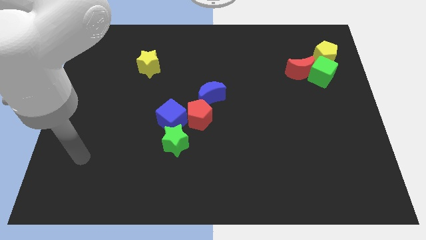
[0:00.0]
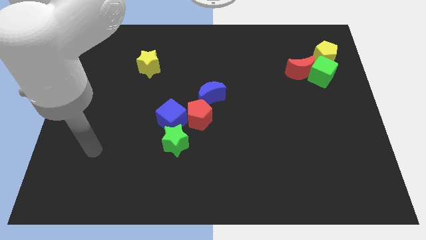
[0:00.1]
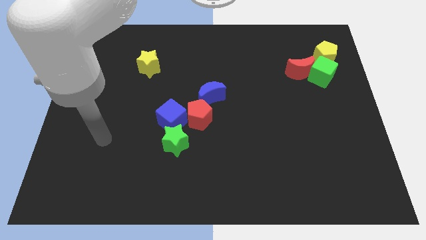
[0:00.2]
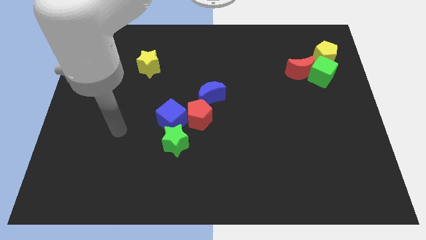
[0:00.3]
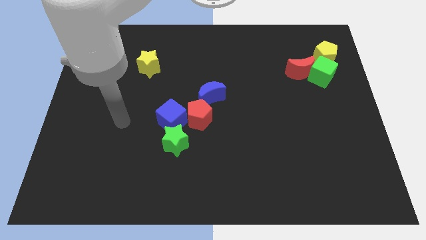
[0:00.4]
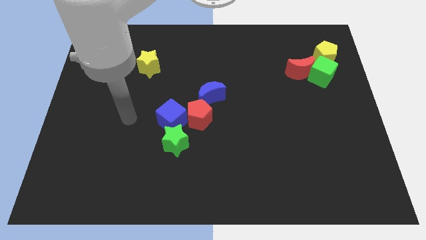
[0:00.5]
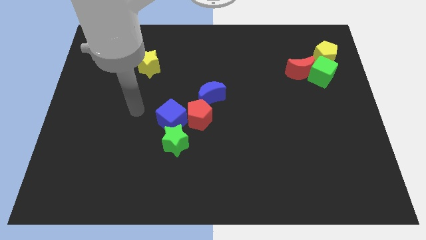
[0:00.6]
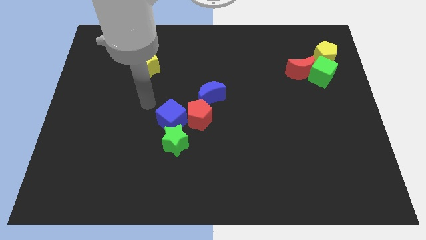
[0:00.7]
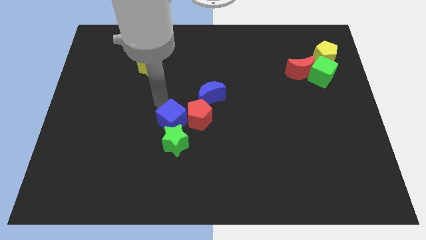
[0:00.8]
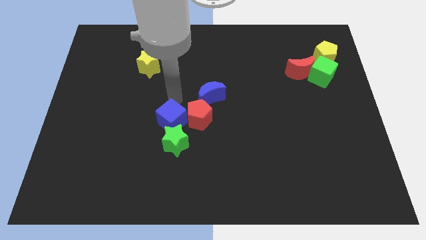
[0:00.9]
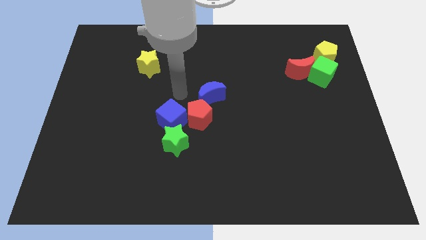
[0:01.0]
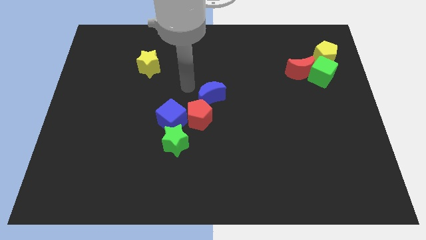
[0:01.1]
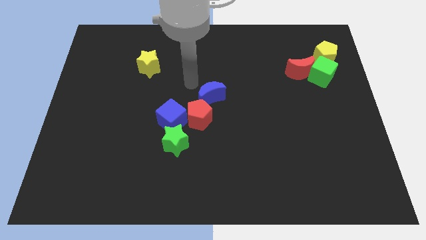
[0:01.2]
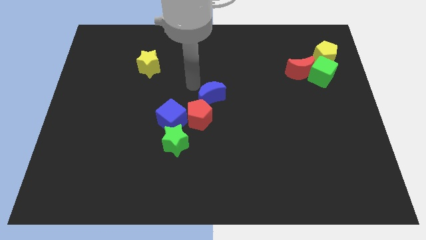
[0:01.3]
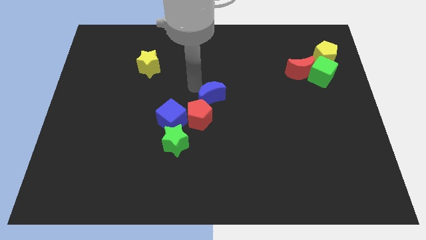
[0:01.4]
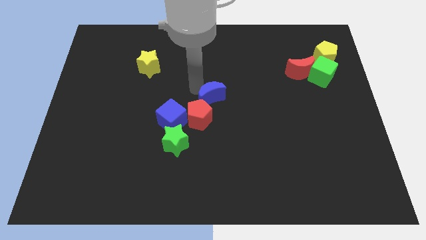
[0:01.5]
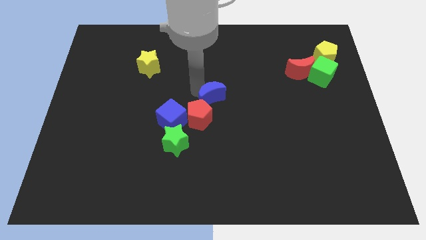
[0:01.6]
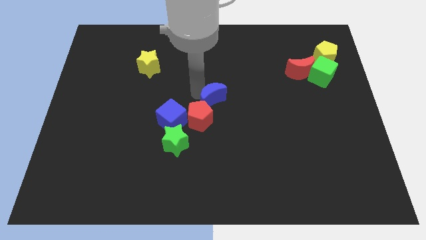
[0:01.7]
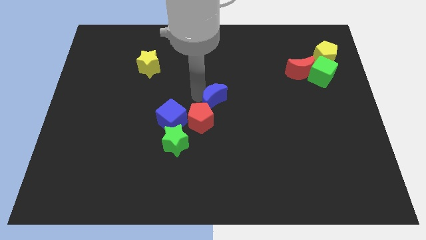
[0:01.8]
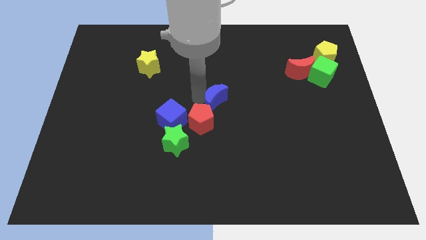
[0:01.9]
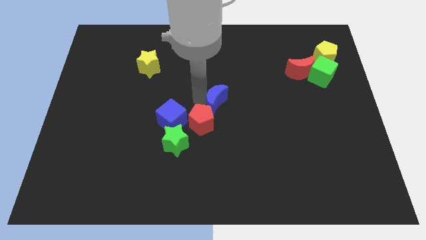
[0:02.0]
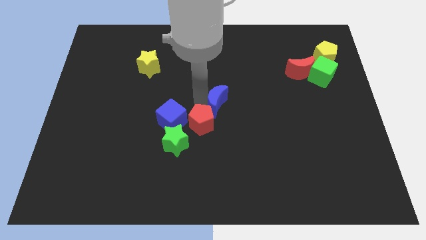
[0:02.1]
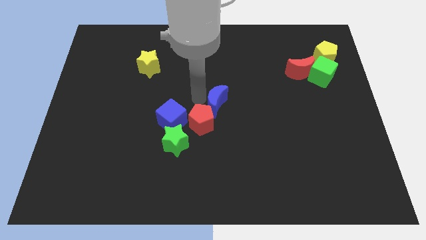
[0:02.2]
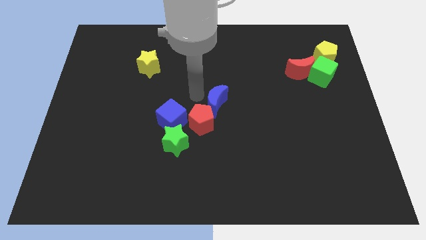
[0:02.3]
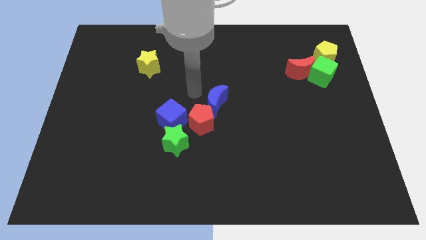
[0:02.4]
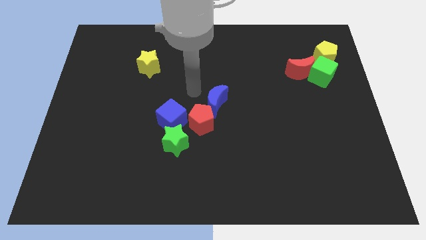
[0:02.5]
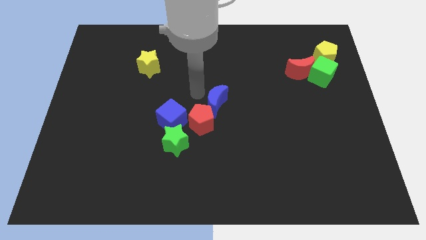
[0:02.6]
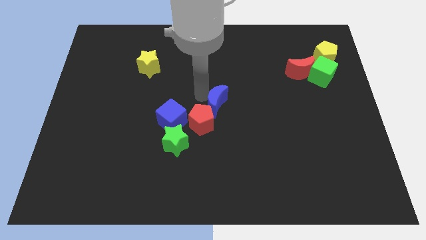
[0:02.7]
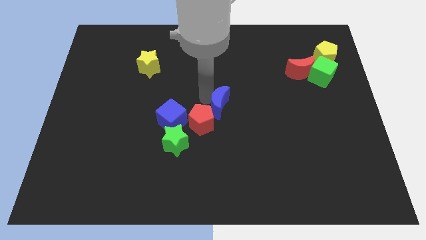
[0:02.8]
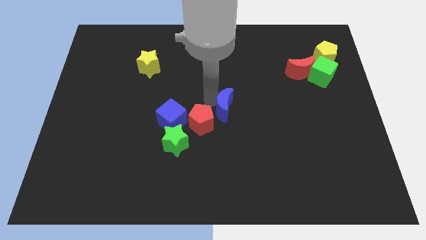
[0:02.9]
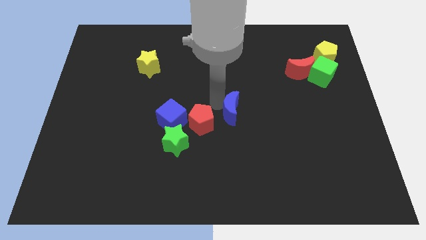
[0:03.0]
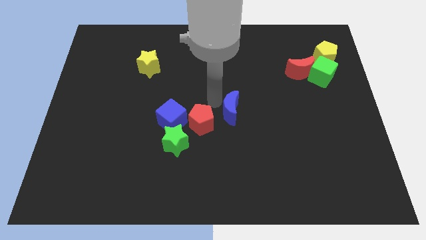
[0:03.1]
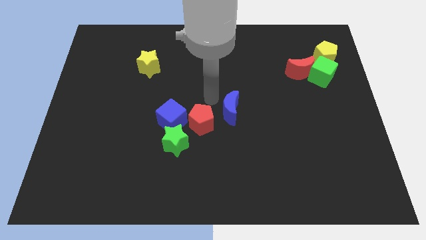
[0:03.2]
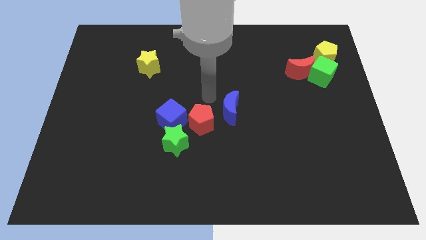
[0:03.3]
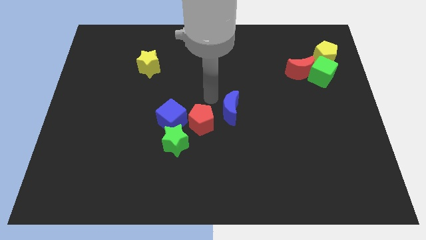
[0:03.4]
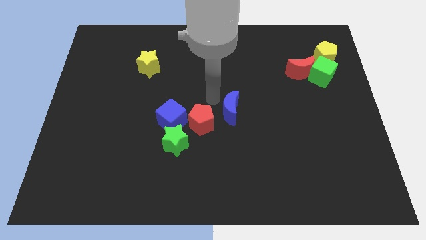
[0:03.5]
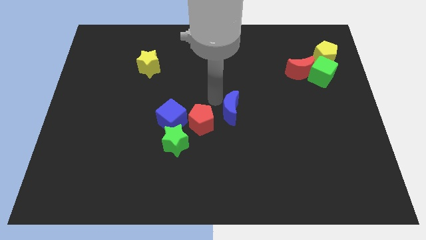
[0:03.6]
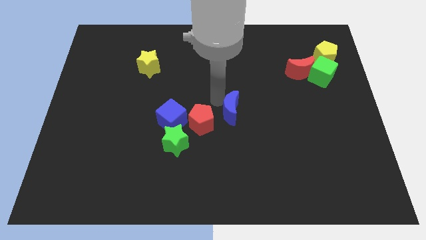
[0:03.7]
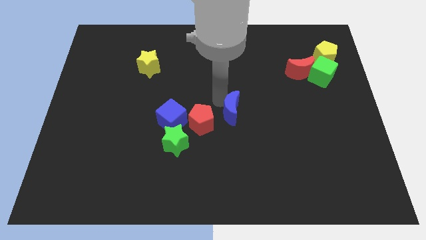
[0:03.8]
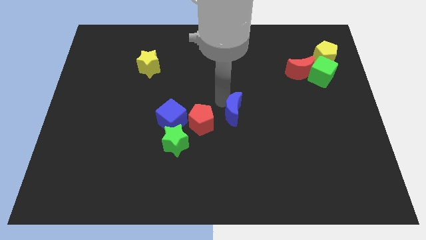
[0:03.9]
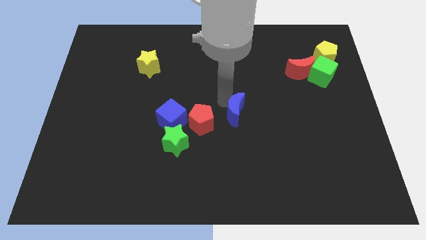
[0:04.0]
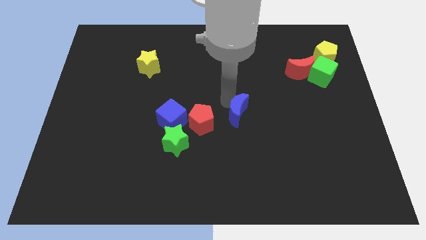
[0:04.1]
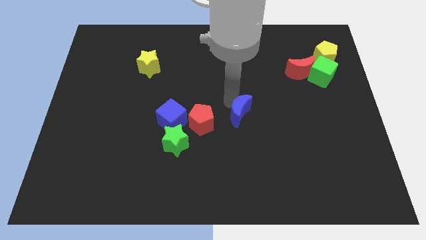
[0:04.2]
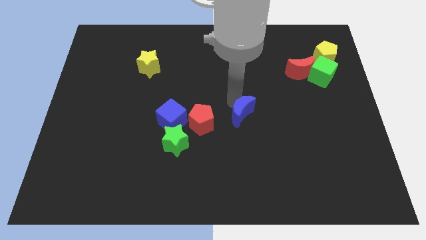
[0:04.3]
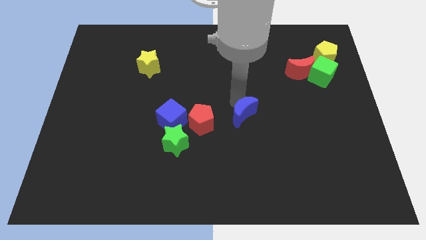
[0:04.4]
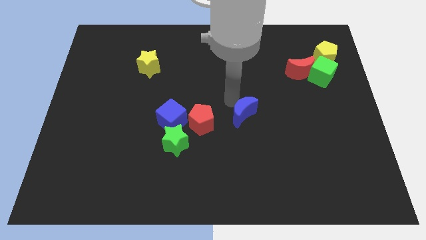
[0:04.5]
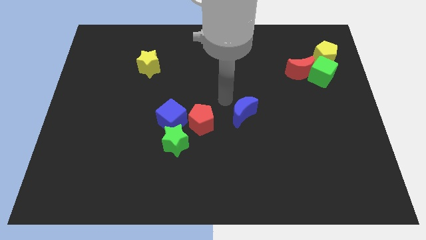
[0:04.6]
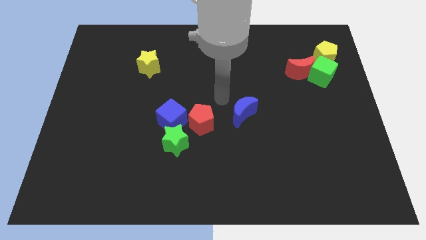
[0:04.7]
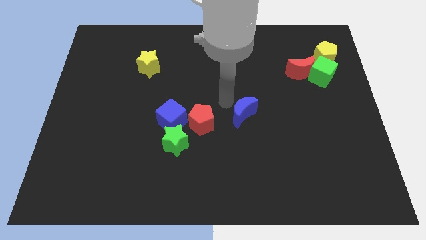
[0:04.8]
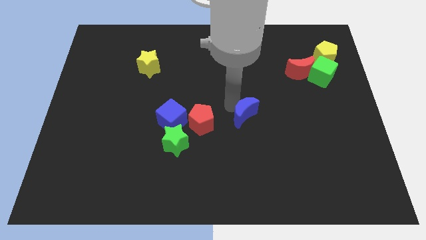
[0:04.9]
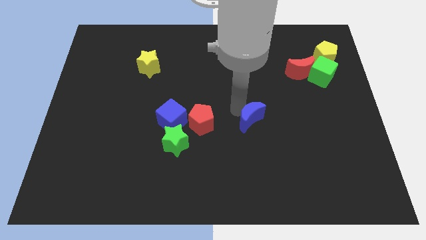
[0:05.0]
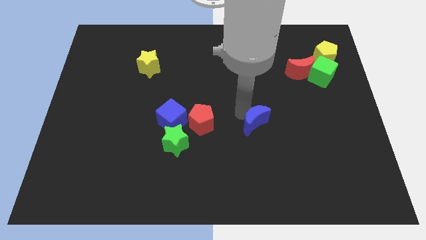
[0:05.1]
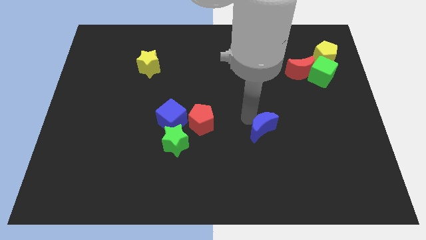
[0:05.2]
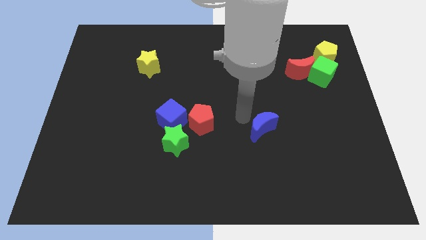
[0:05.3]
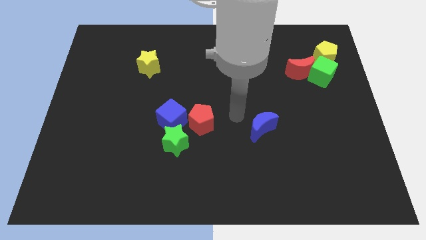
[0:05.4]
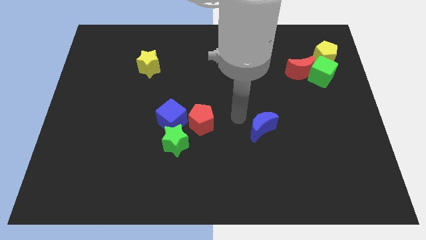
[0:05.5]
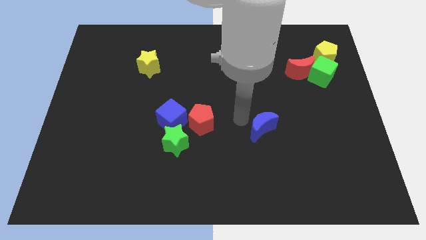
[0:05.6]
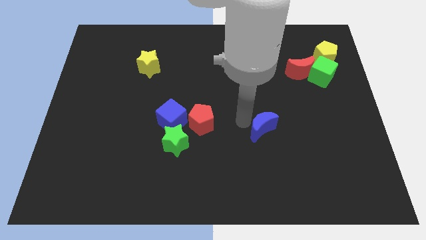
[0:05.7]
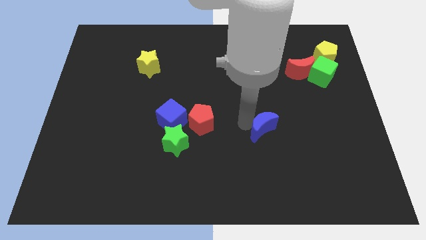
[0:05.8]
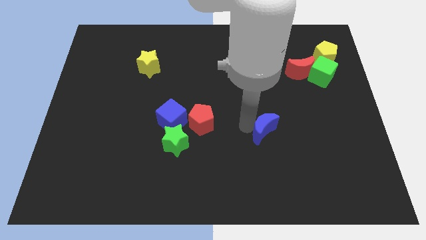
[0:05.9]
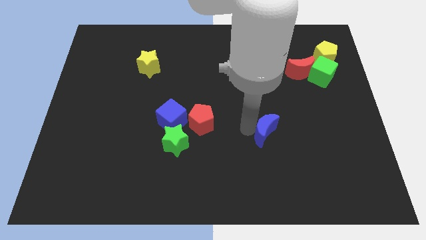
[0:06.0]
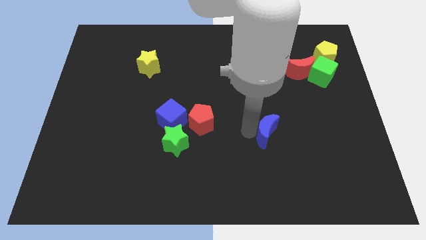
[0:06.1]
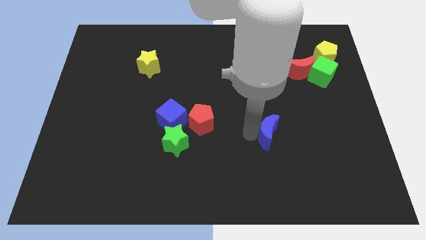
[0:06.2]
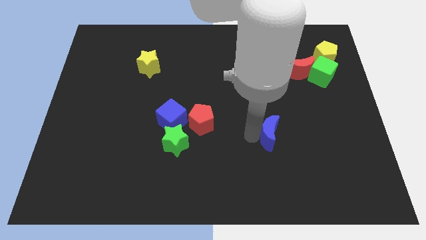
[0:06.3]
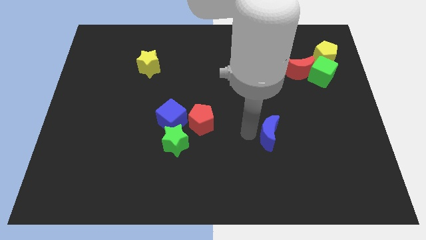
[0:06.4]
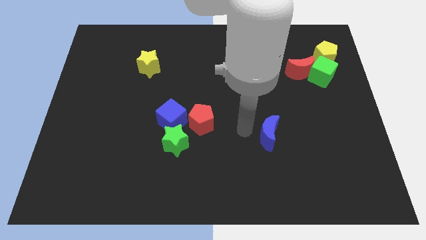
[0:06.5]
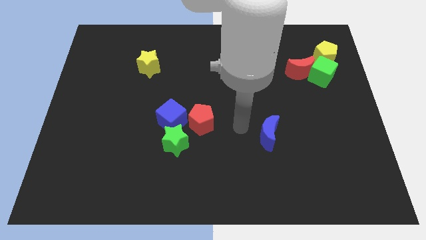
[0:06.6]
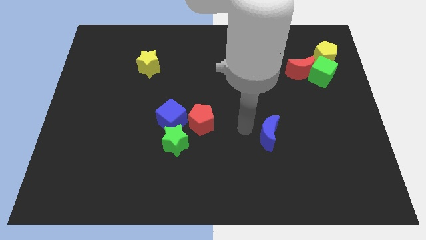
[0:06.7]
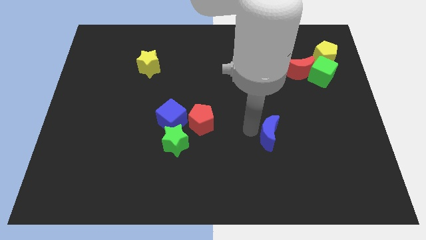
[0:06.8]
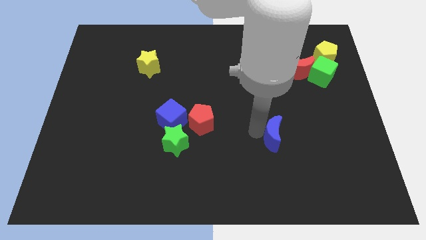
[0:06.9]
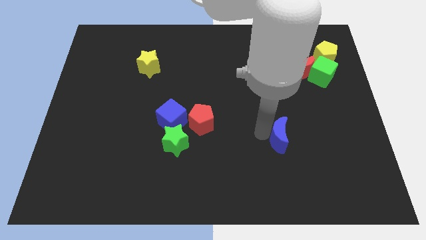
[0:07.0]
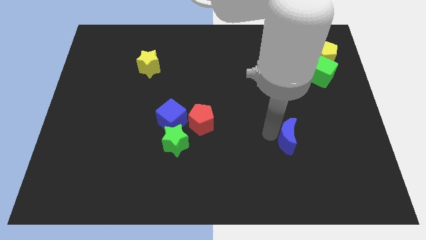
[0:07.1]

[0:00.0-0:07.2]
slide the blue moon downwards and right

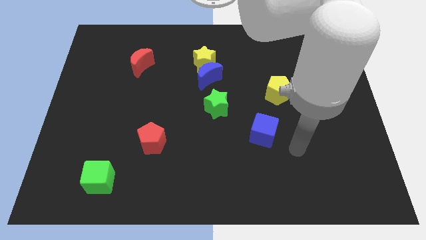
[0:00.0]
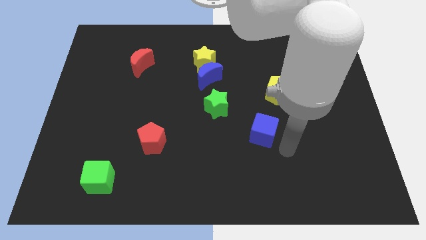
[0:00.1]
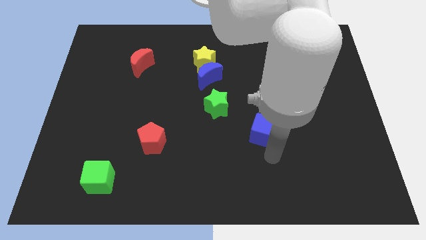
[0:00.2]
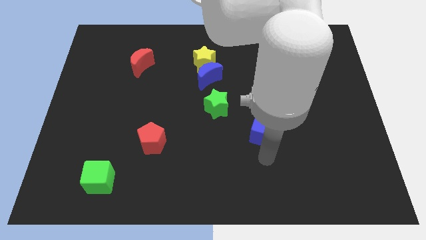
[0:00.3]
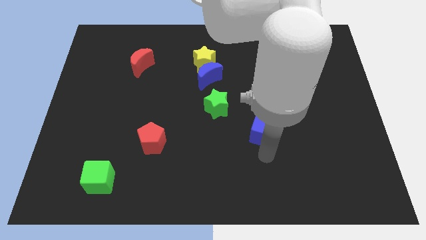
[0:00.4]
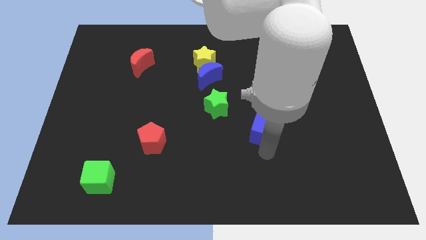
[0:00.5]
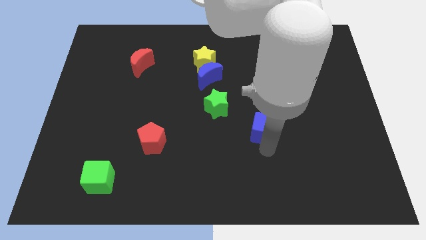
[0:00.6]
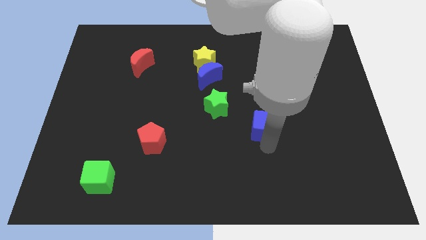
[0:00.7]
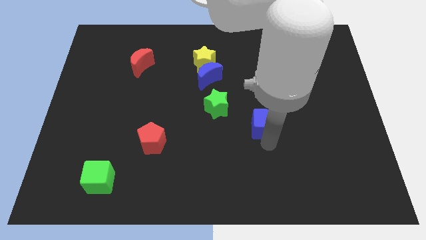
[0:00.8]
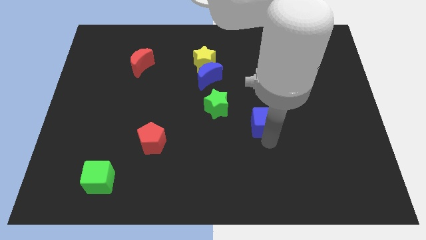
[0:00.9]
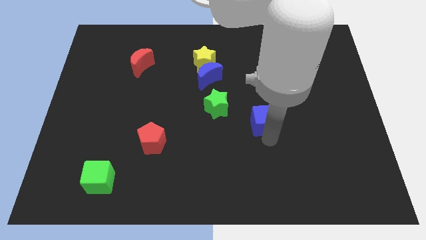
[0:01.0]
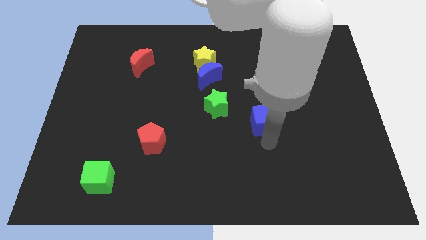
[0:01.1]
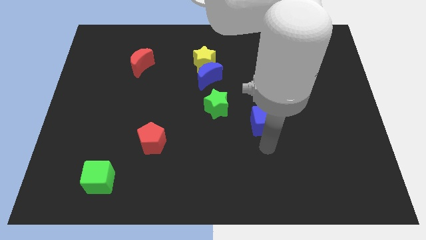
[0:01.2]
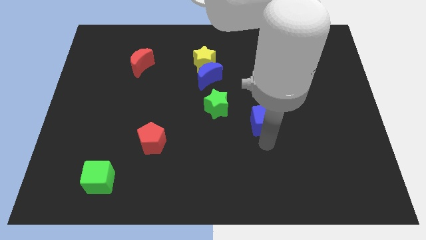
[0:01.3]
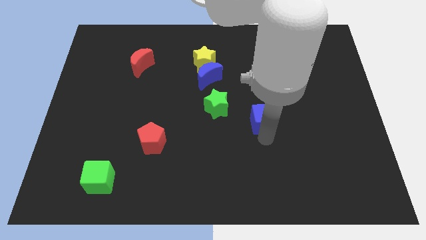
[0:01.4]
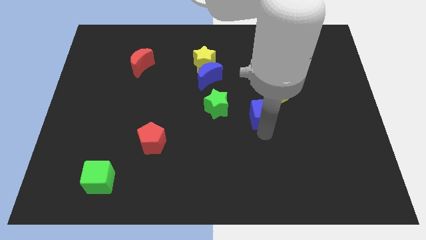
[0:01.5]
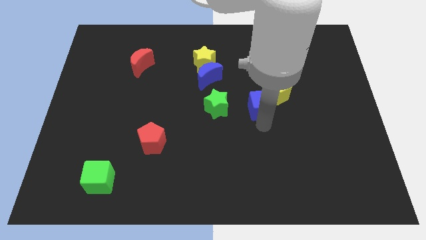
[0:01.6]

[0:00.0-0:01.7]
slide the blue cube somewhat upwards
